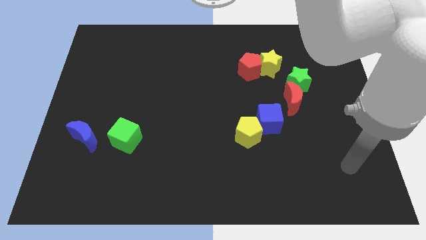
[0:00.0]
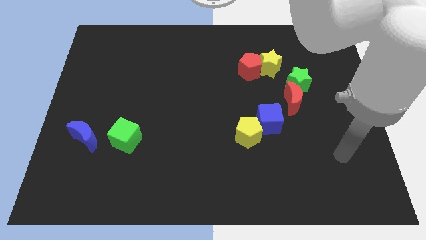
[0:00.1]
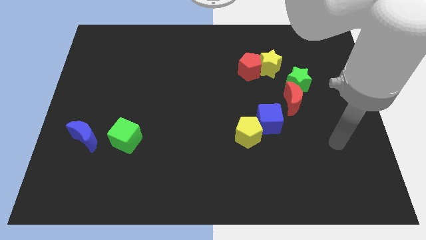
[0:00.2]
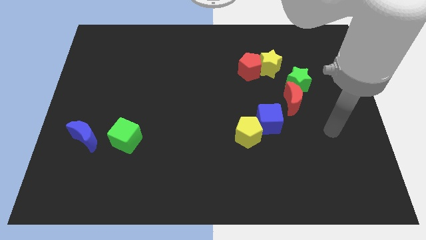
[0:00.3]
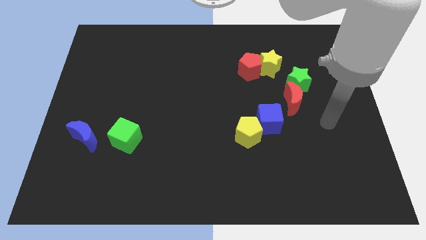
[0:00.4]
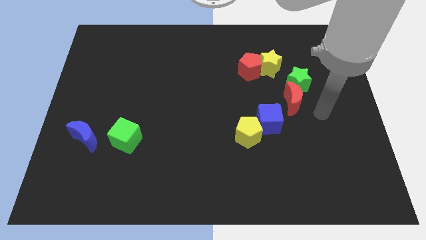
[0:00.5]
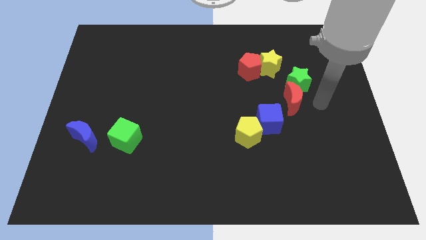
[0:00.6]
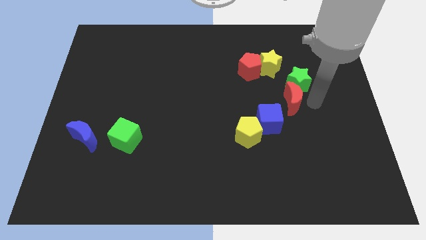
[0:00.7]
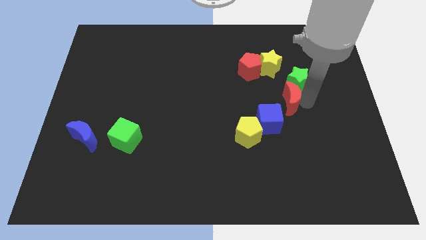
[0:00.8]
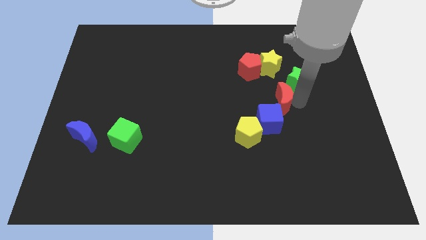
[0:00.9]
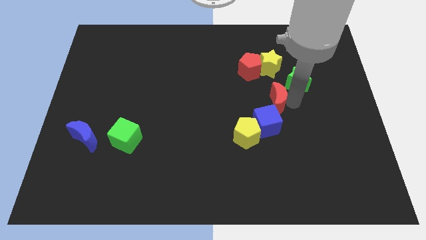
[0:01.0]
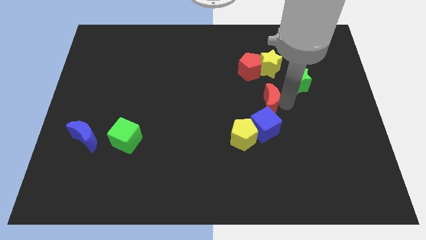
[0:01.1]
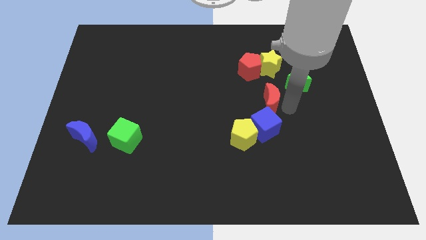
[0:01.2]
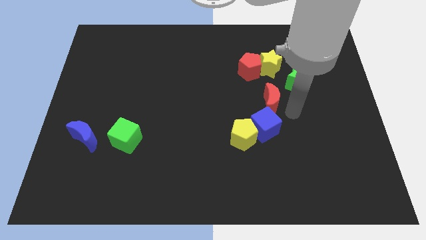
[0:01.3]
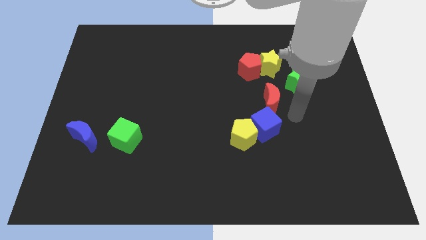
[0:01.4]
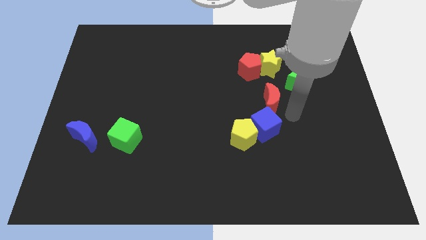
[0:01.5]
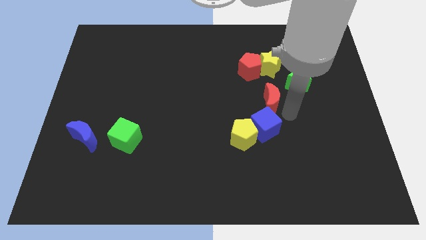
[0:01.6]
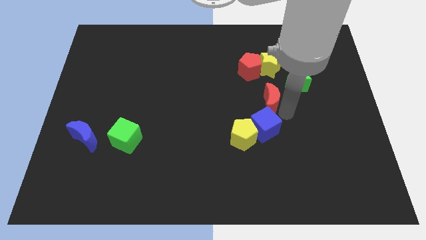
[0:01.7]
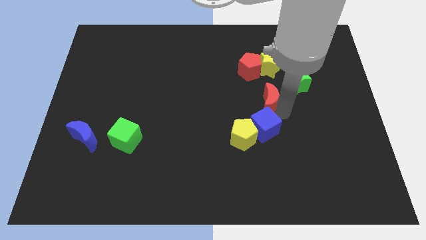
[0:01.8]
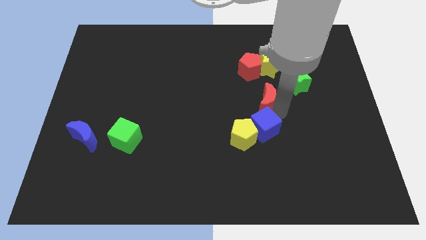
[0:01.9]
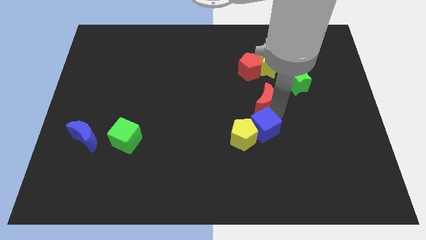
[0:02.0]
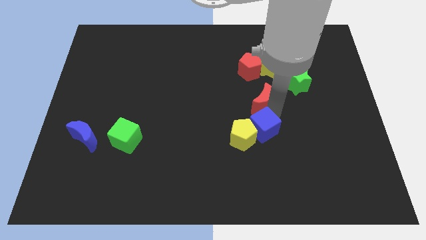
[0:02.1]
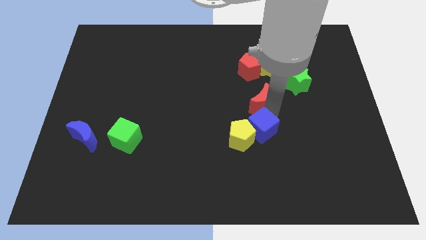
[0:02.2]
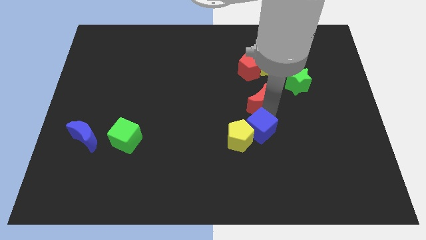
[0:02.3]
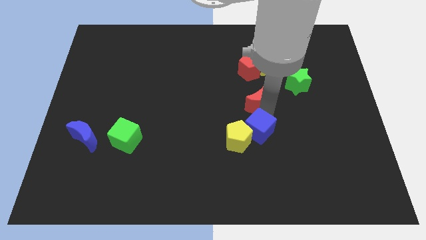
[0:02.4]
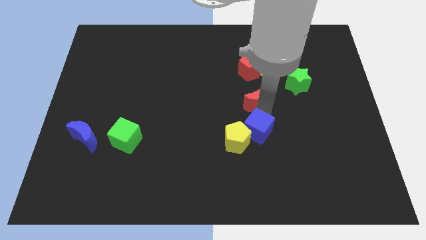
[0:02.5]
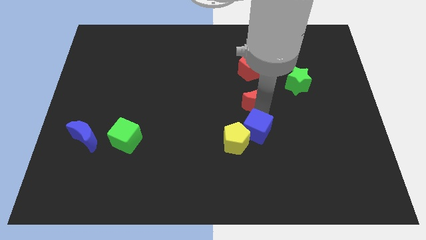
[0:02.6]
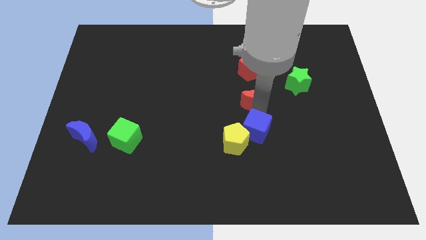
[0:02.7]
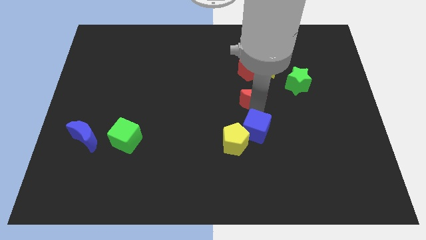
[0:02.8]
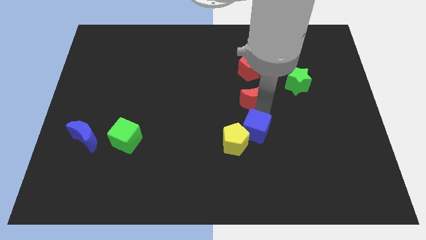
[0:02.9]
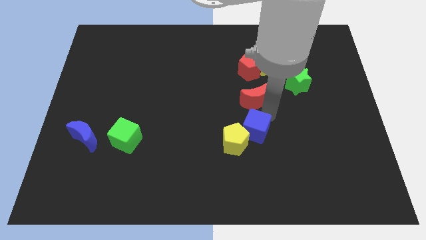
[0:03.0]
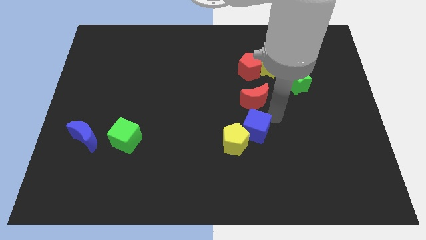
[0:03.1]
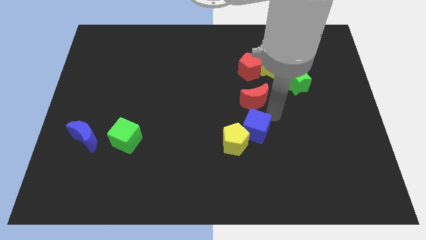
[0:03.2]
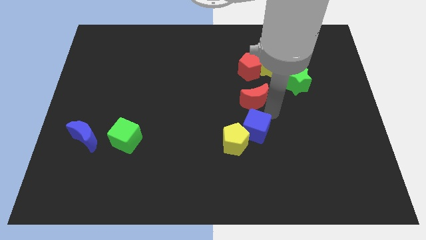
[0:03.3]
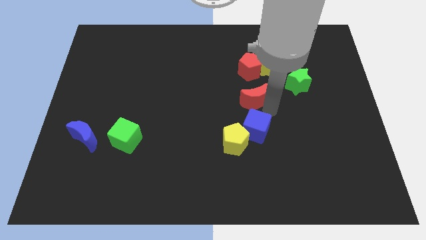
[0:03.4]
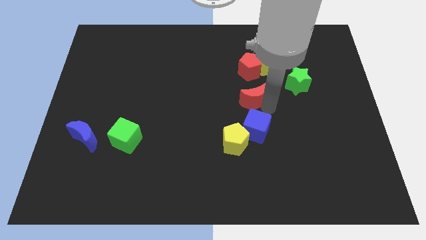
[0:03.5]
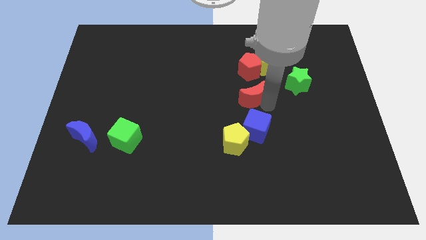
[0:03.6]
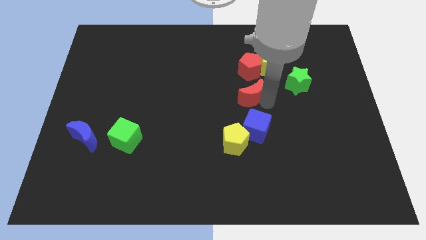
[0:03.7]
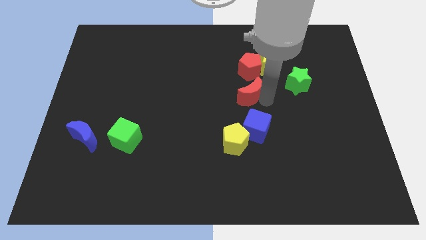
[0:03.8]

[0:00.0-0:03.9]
slightly push the red moon up and then left

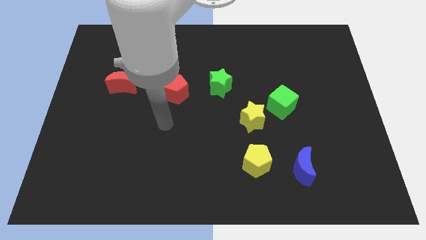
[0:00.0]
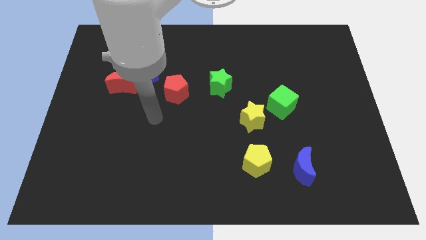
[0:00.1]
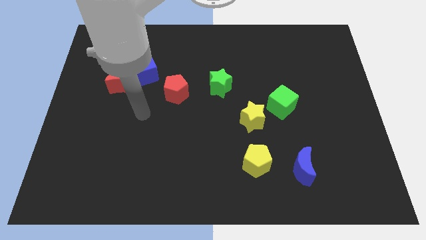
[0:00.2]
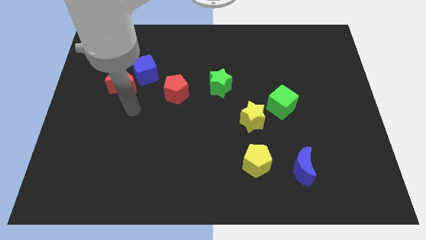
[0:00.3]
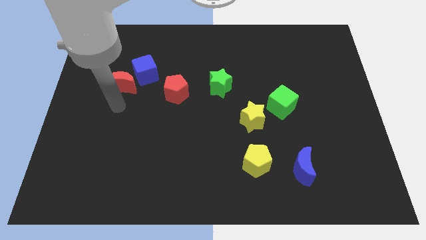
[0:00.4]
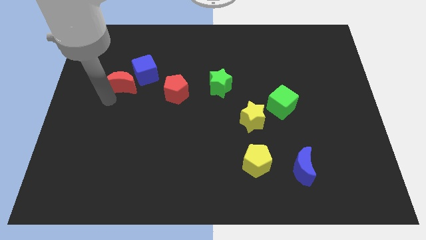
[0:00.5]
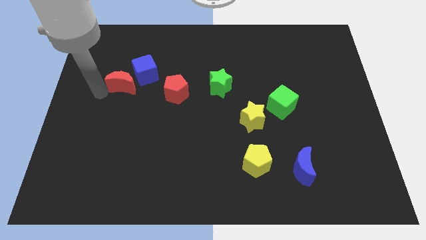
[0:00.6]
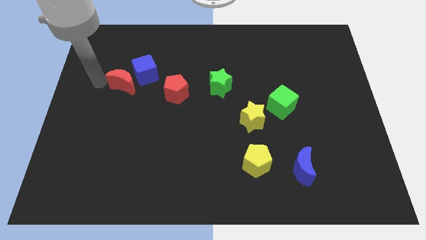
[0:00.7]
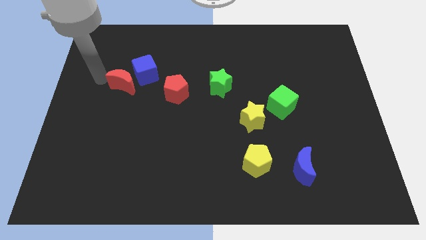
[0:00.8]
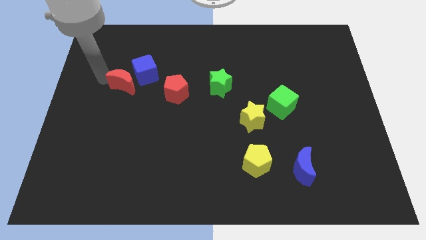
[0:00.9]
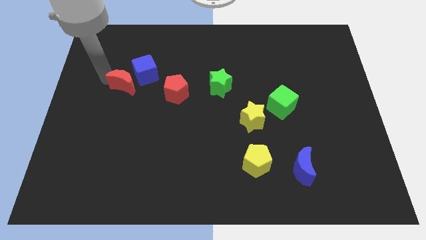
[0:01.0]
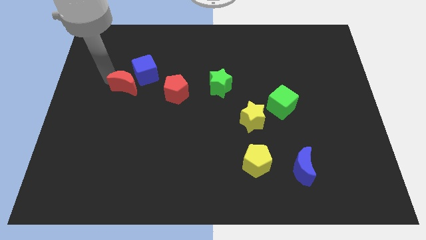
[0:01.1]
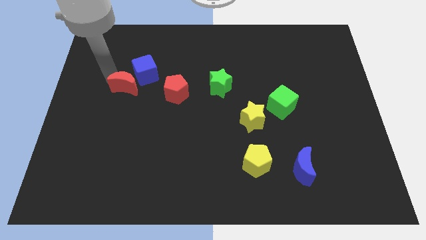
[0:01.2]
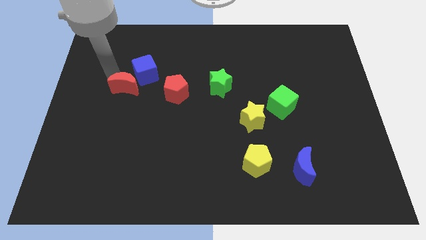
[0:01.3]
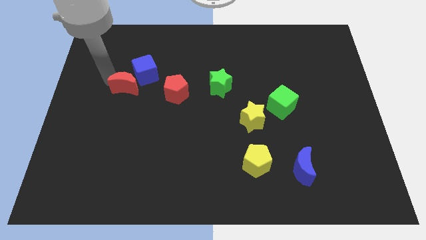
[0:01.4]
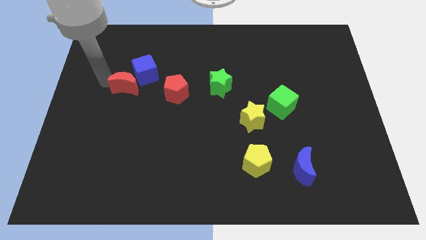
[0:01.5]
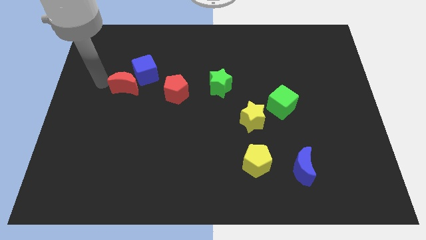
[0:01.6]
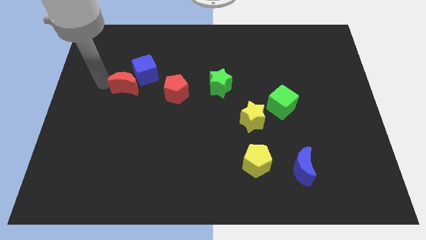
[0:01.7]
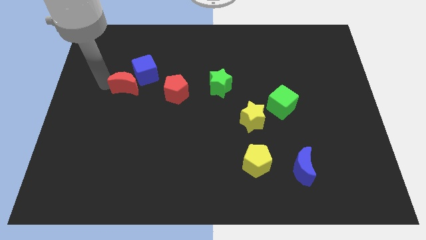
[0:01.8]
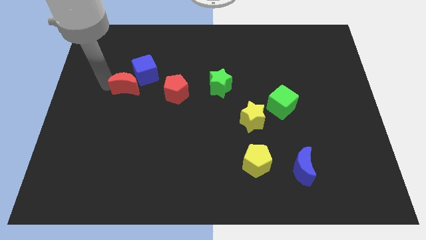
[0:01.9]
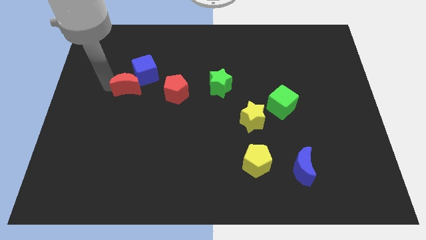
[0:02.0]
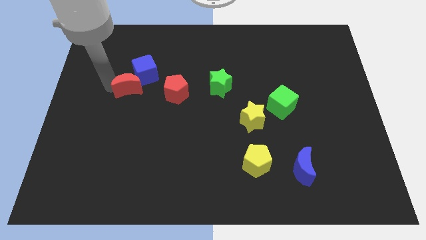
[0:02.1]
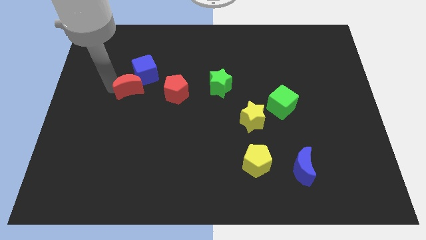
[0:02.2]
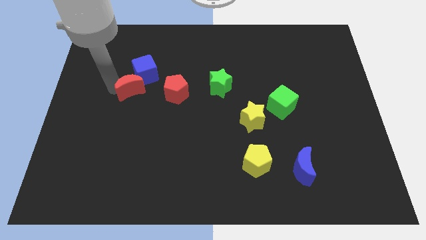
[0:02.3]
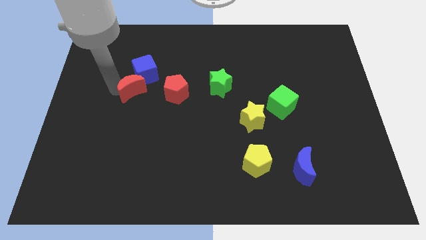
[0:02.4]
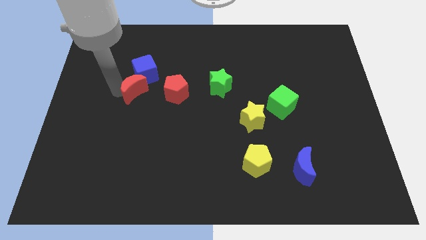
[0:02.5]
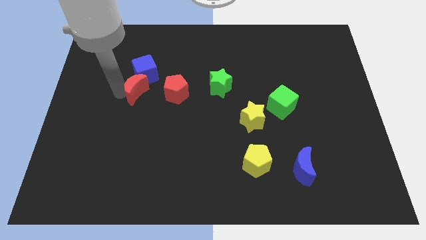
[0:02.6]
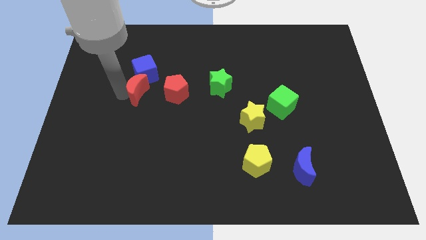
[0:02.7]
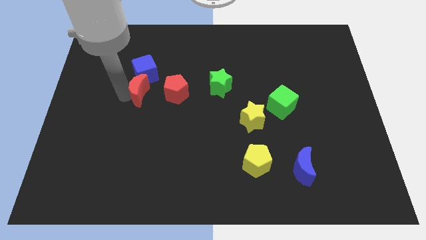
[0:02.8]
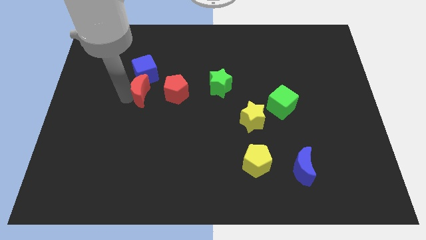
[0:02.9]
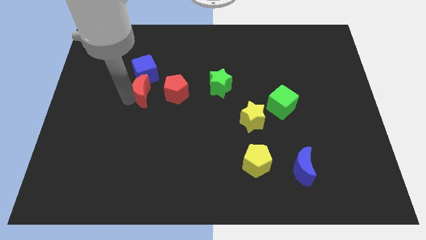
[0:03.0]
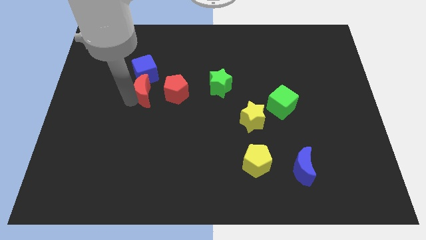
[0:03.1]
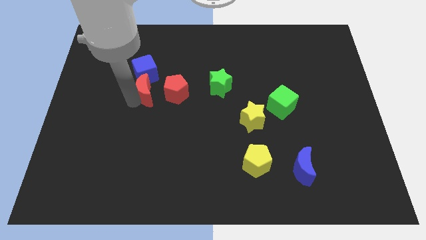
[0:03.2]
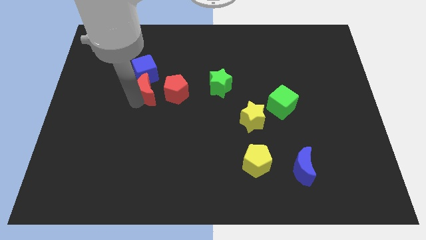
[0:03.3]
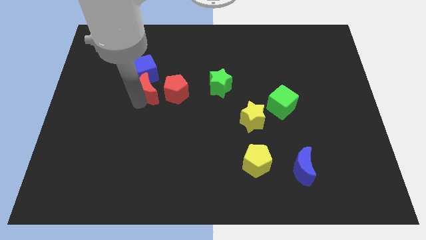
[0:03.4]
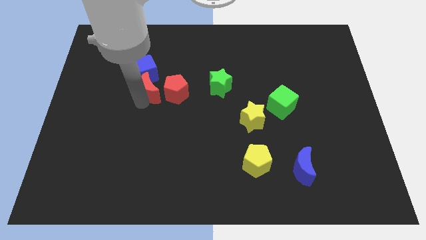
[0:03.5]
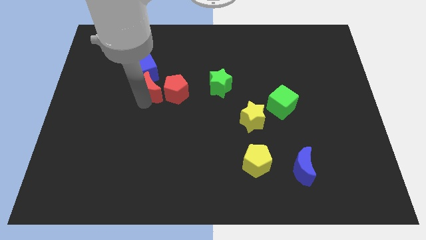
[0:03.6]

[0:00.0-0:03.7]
move the red moon to the right somewhat

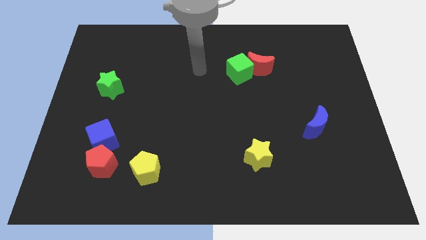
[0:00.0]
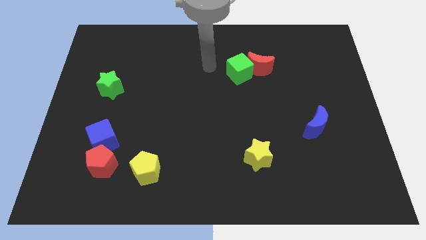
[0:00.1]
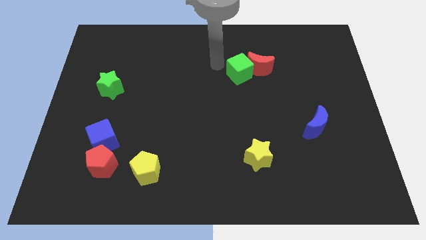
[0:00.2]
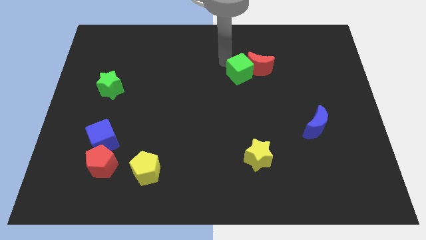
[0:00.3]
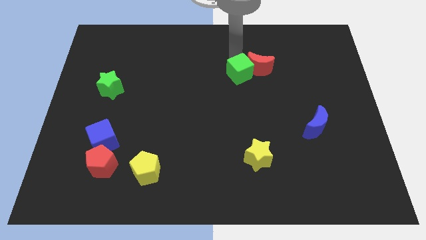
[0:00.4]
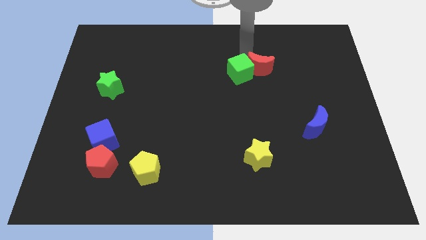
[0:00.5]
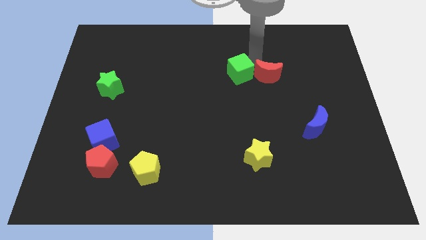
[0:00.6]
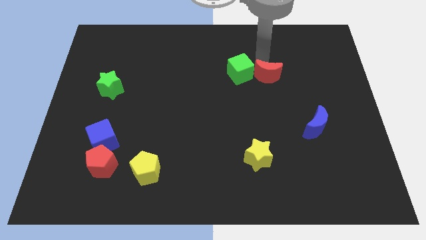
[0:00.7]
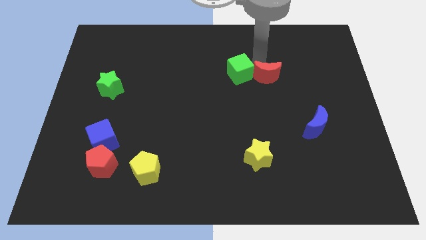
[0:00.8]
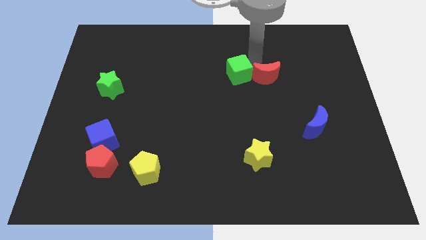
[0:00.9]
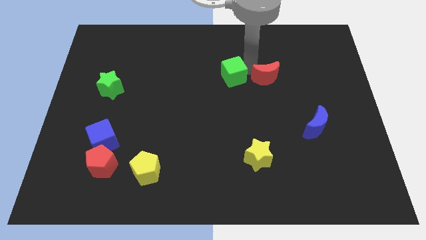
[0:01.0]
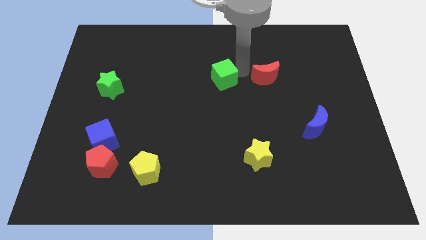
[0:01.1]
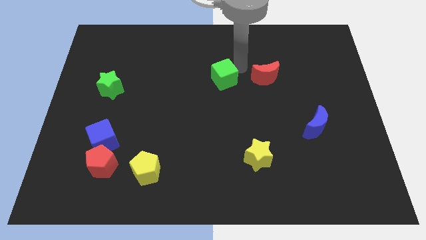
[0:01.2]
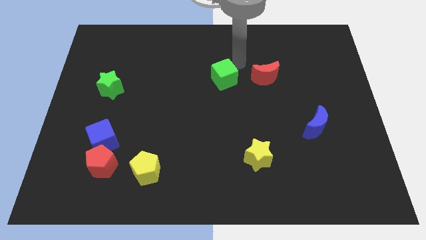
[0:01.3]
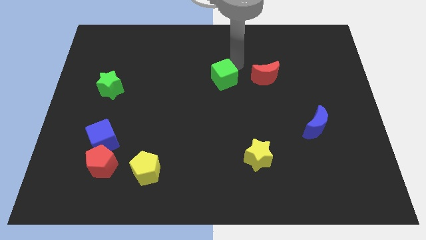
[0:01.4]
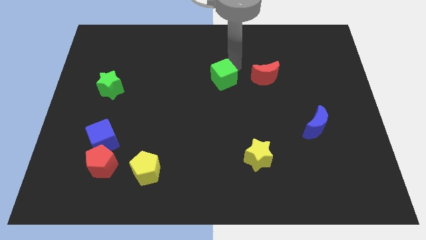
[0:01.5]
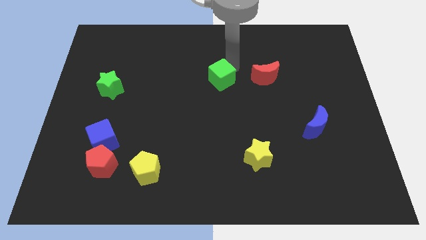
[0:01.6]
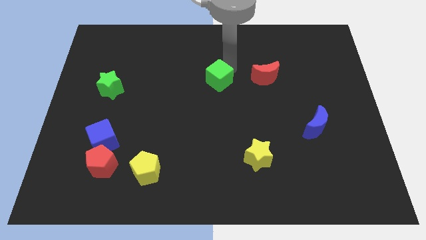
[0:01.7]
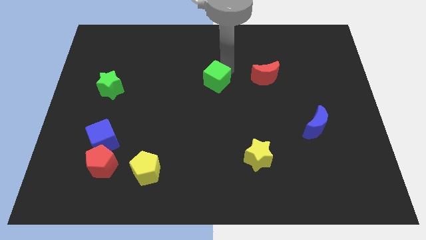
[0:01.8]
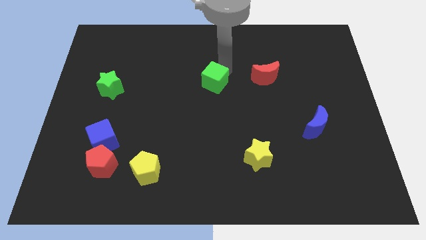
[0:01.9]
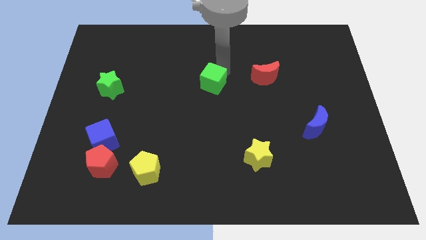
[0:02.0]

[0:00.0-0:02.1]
push the green cube downwards and then left a little
